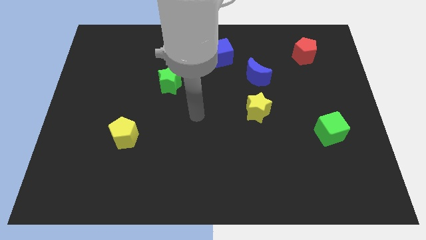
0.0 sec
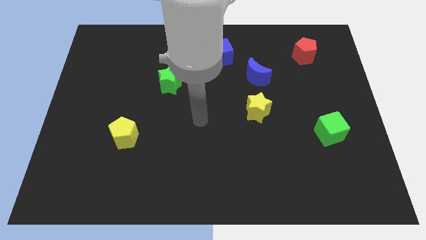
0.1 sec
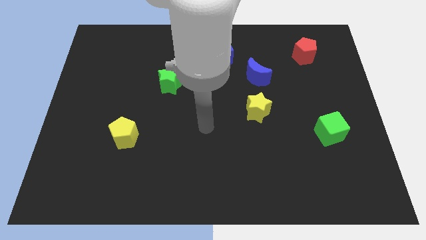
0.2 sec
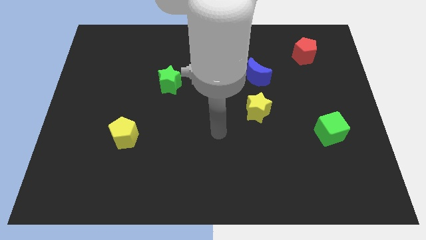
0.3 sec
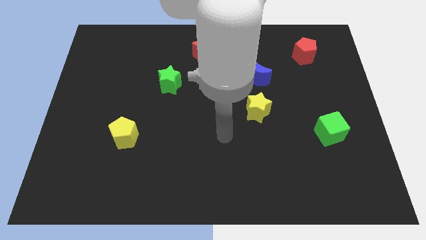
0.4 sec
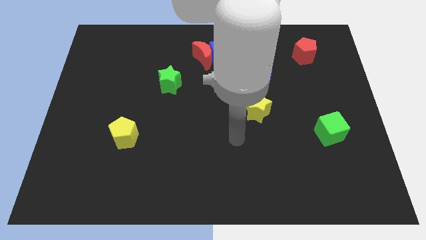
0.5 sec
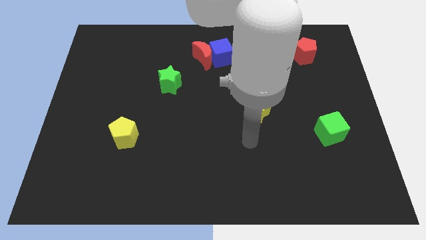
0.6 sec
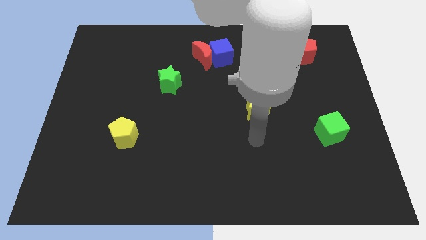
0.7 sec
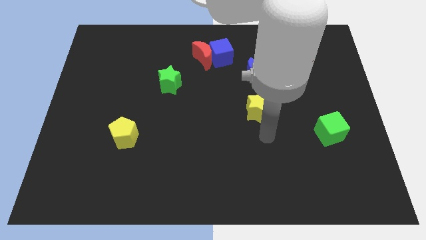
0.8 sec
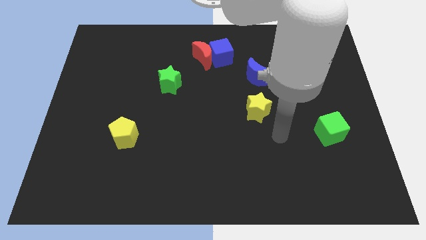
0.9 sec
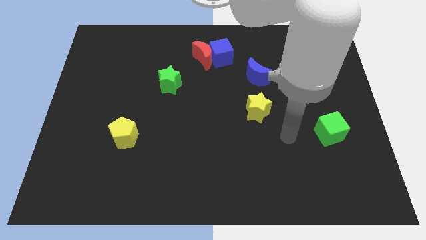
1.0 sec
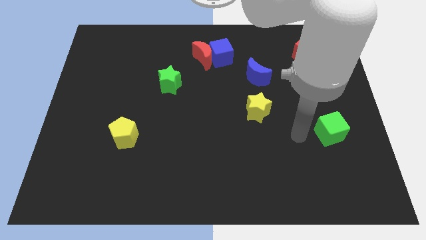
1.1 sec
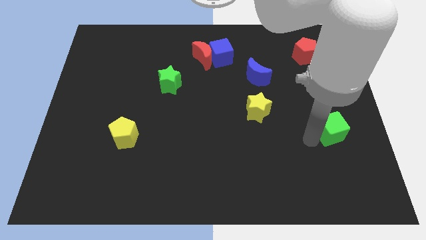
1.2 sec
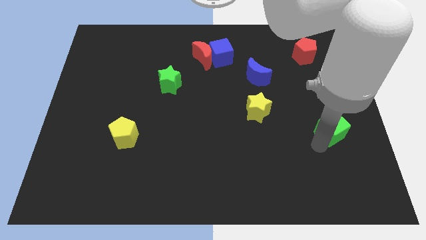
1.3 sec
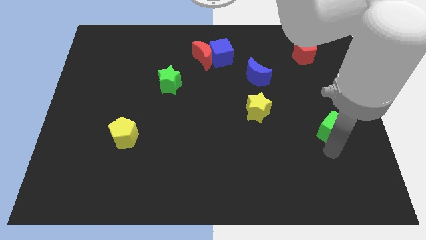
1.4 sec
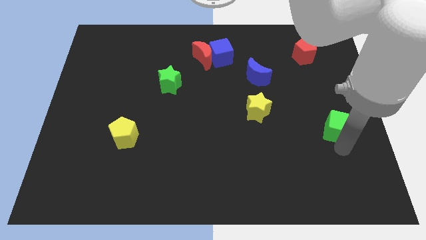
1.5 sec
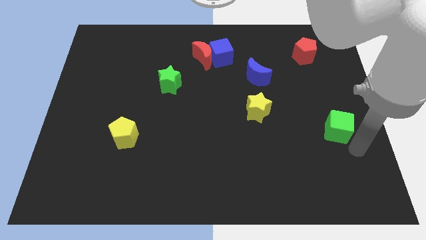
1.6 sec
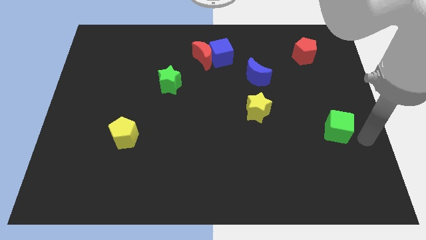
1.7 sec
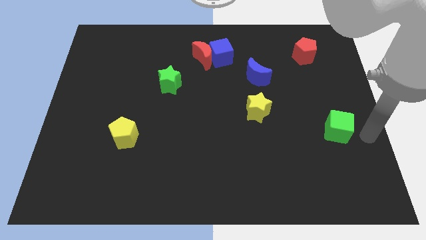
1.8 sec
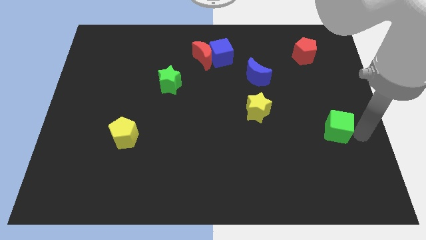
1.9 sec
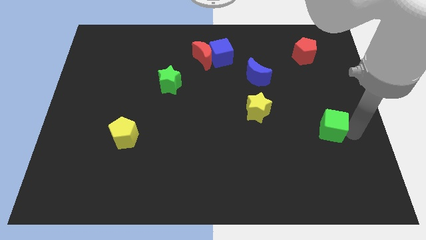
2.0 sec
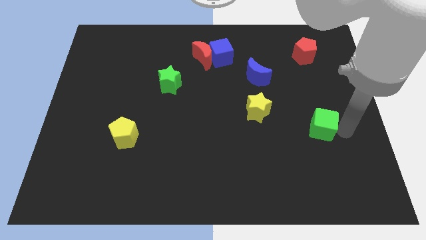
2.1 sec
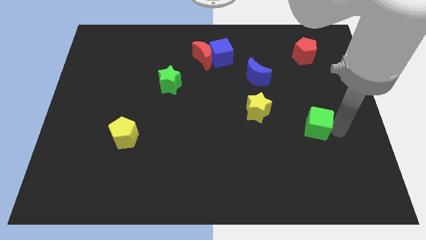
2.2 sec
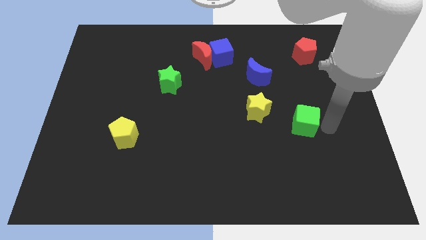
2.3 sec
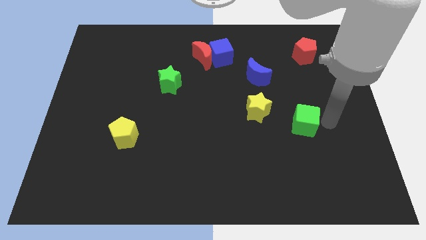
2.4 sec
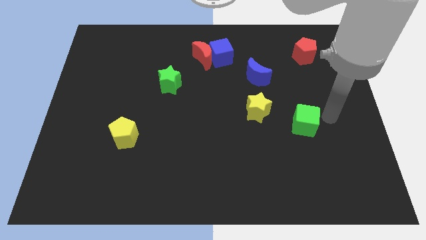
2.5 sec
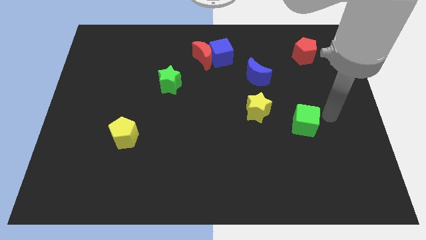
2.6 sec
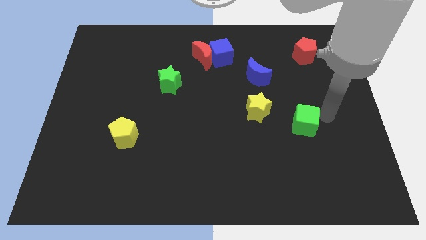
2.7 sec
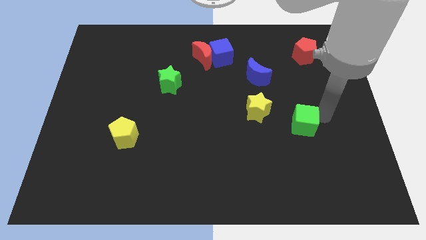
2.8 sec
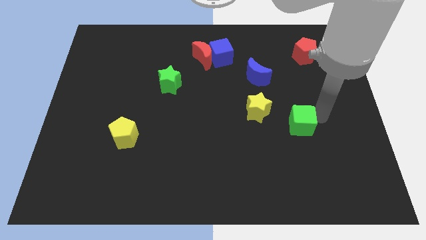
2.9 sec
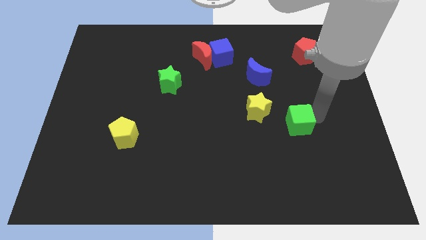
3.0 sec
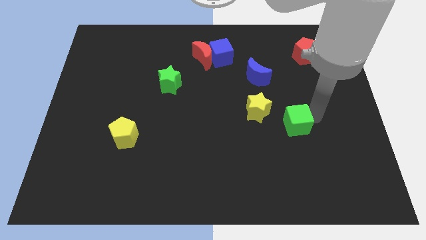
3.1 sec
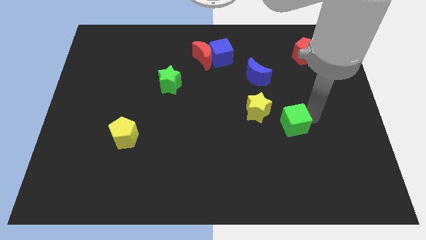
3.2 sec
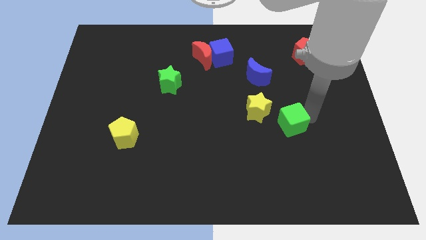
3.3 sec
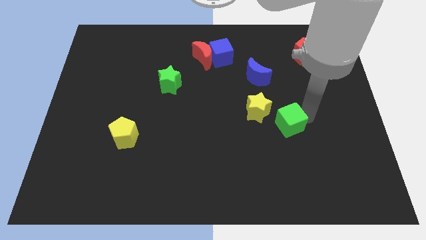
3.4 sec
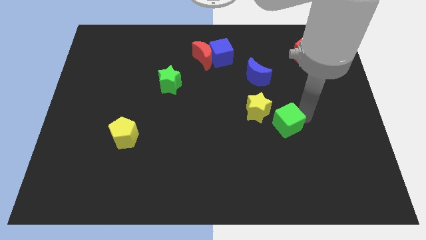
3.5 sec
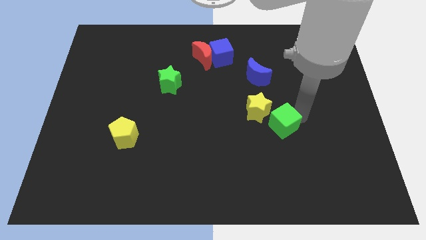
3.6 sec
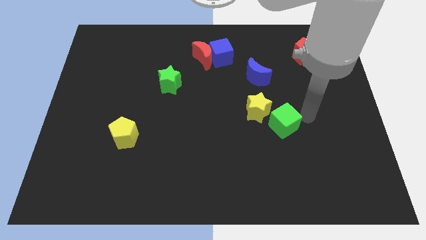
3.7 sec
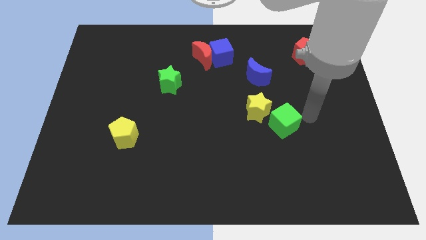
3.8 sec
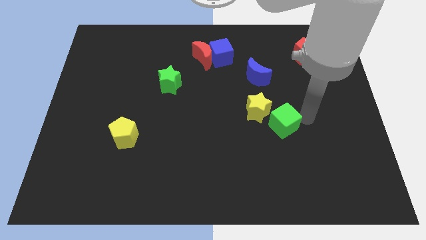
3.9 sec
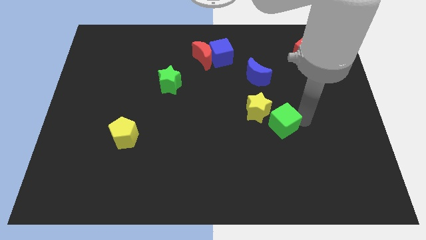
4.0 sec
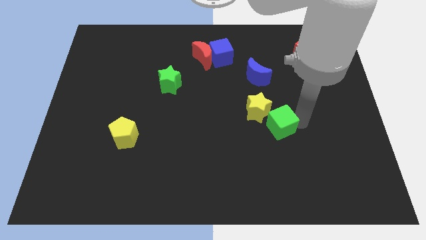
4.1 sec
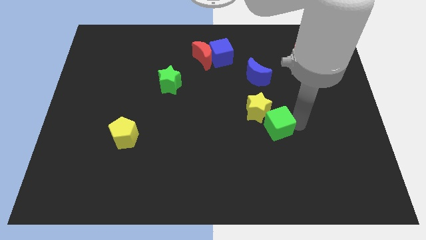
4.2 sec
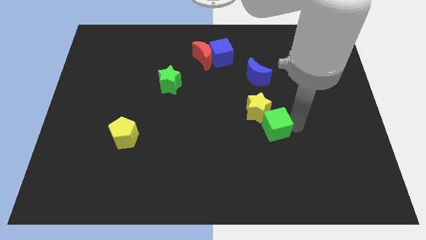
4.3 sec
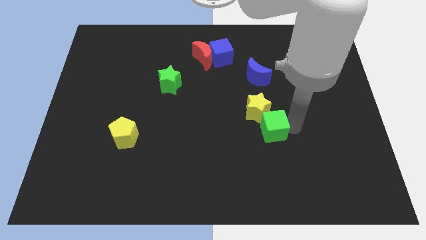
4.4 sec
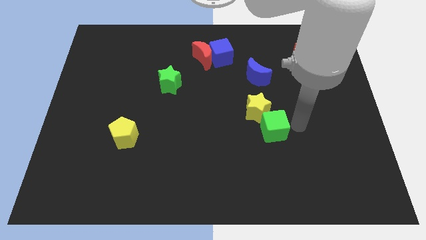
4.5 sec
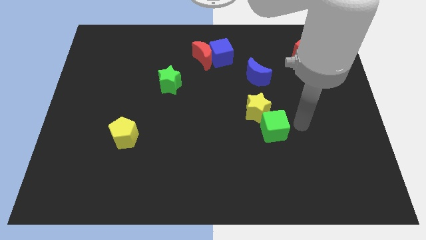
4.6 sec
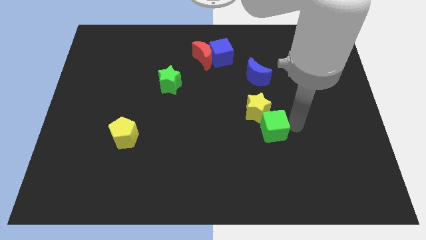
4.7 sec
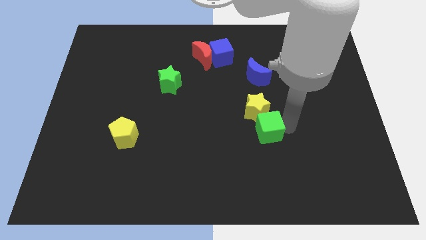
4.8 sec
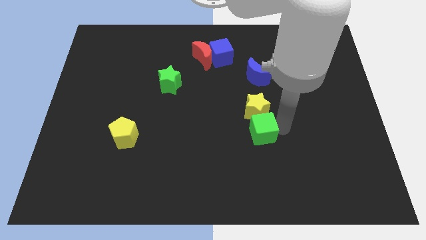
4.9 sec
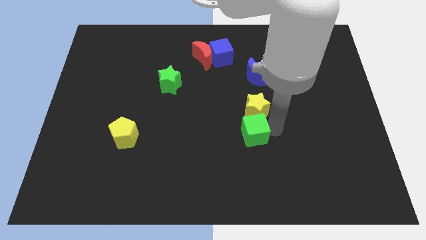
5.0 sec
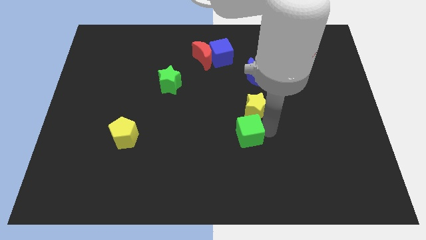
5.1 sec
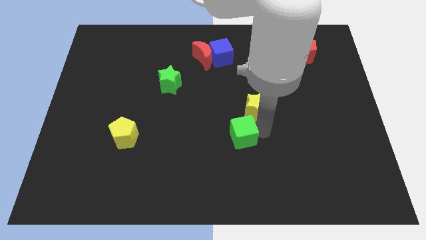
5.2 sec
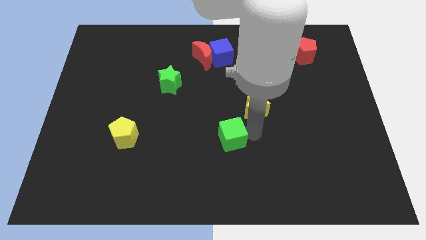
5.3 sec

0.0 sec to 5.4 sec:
push the green cube left

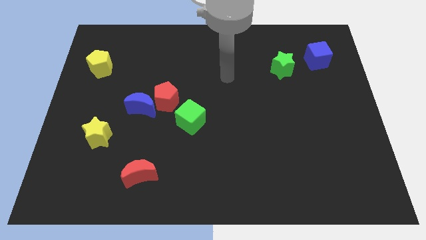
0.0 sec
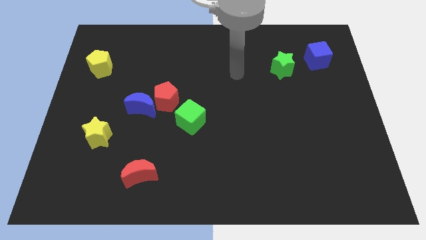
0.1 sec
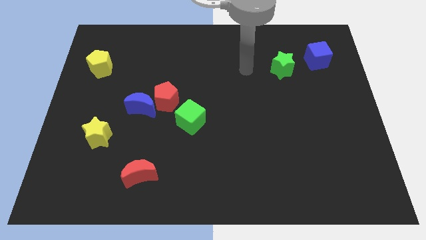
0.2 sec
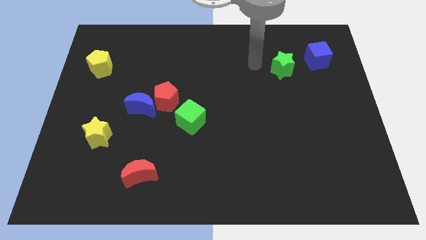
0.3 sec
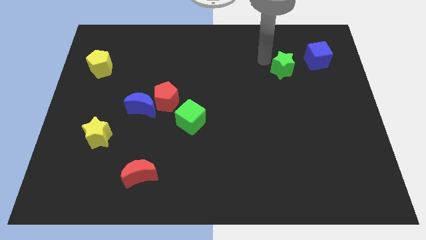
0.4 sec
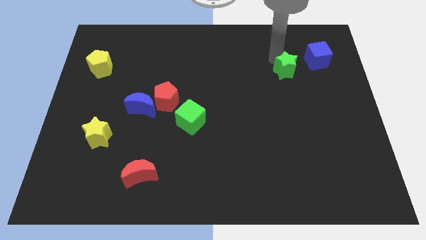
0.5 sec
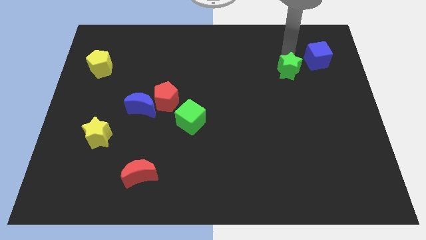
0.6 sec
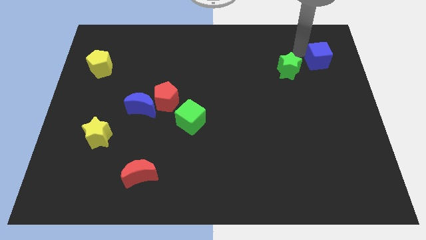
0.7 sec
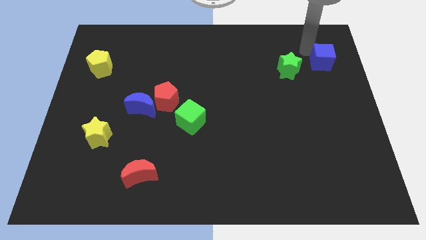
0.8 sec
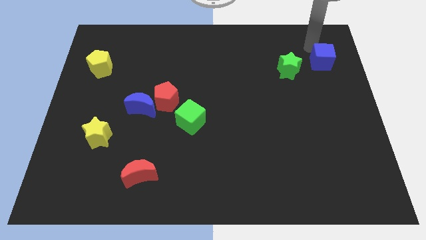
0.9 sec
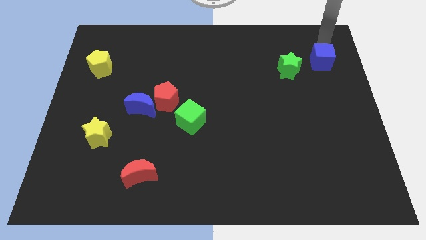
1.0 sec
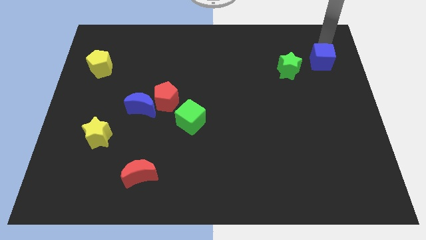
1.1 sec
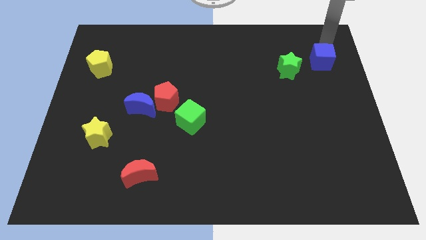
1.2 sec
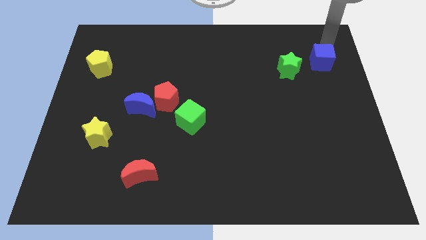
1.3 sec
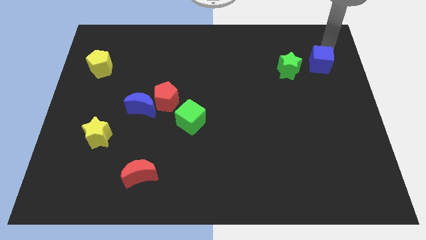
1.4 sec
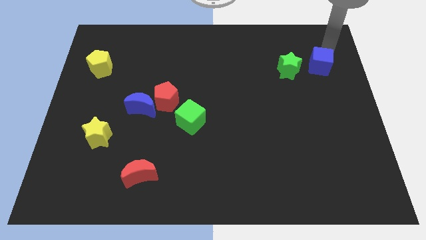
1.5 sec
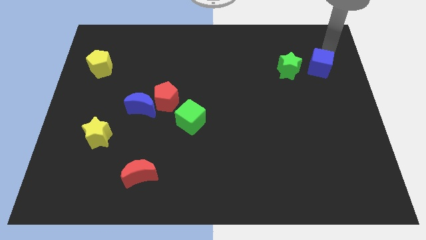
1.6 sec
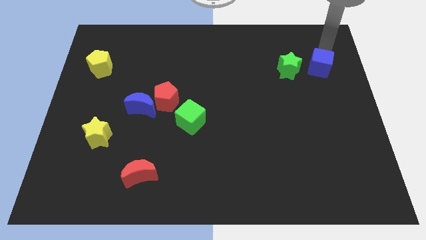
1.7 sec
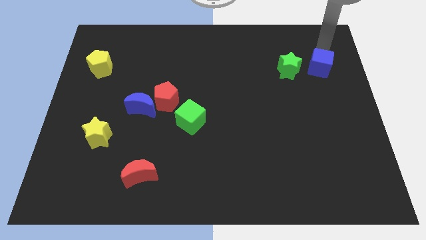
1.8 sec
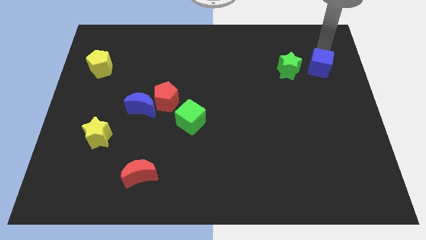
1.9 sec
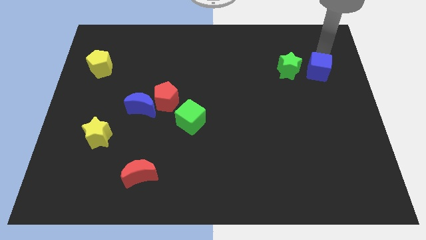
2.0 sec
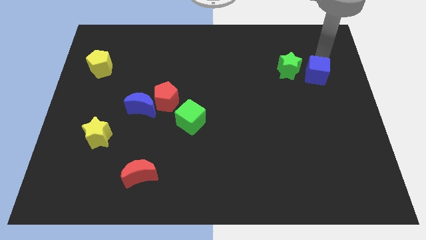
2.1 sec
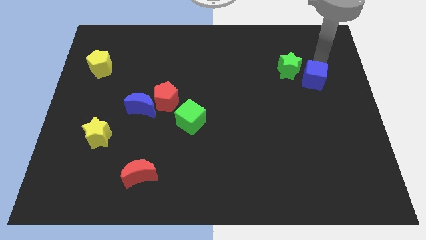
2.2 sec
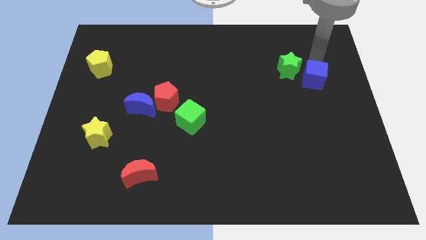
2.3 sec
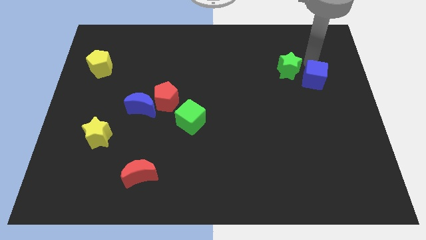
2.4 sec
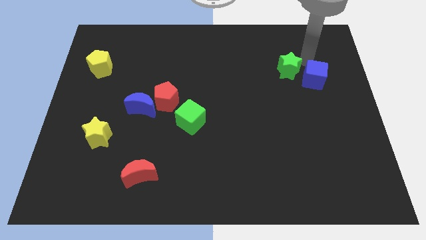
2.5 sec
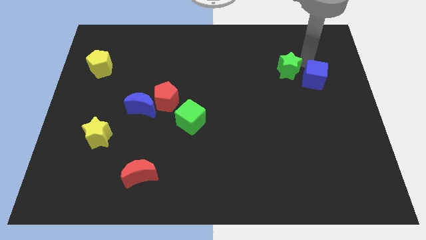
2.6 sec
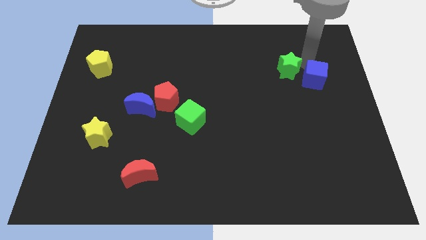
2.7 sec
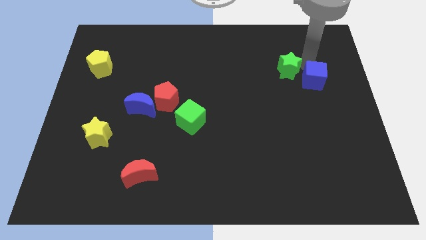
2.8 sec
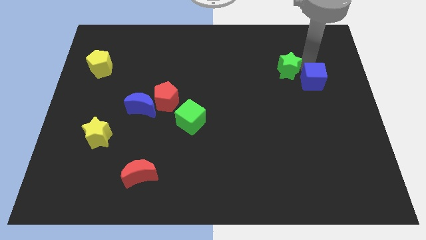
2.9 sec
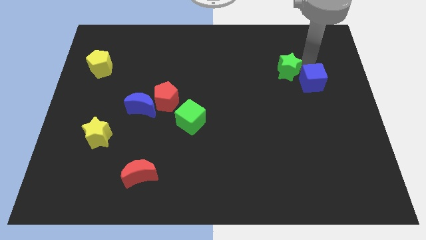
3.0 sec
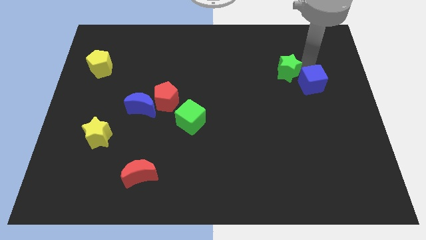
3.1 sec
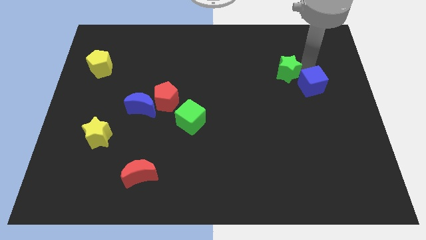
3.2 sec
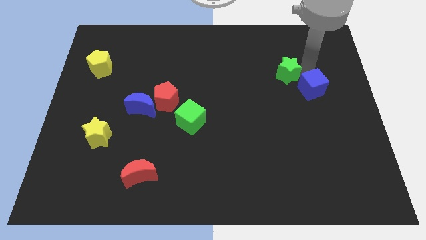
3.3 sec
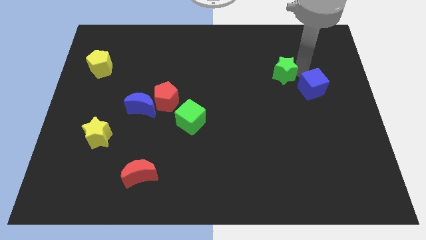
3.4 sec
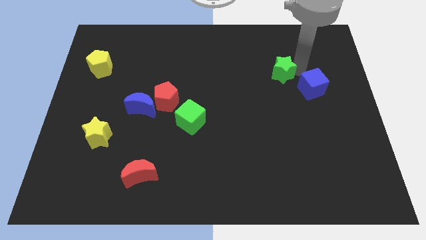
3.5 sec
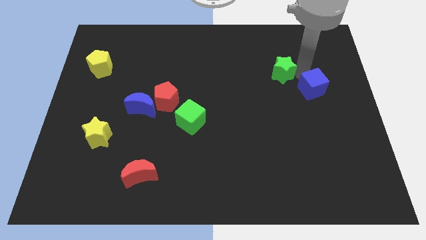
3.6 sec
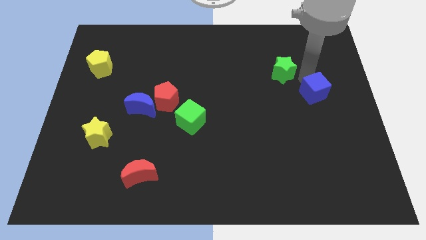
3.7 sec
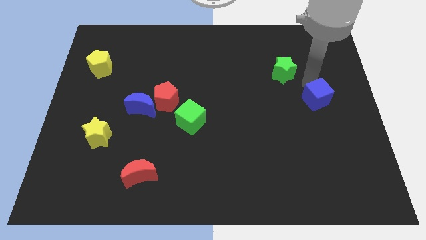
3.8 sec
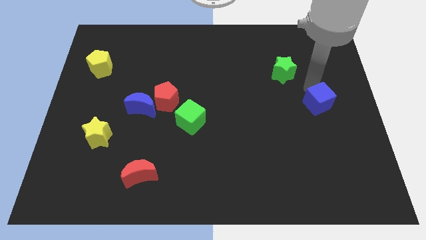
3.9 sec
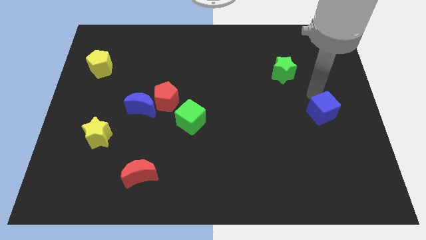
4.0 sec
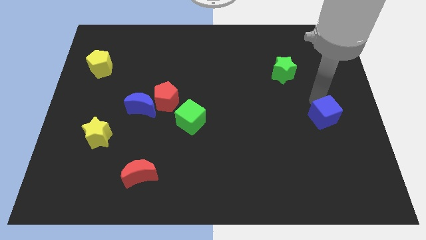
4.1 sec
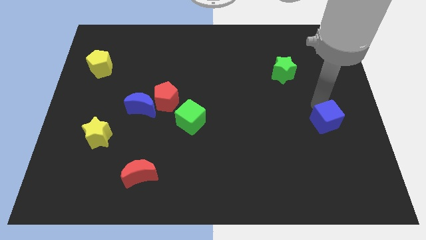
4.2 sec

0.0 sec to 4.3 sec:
push the blue cube down
